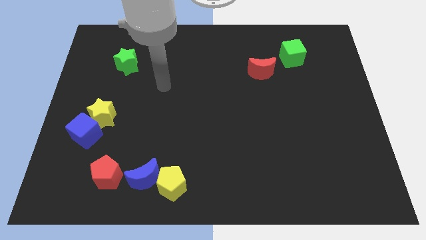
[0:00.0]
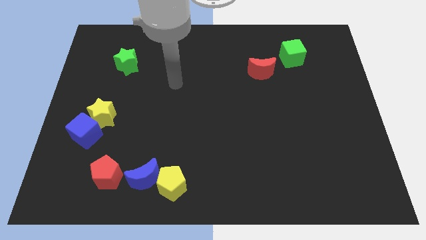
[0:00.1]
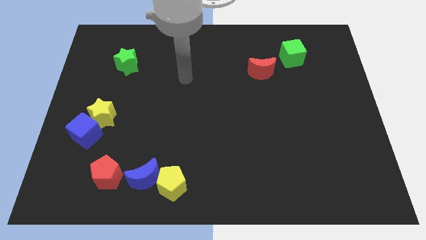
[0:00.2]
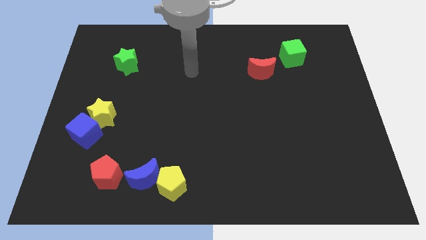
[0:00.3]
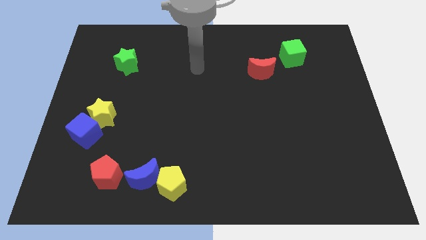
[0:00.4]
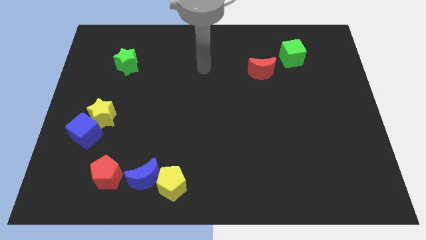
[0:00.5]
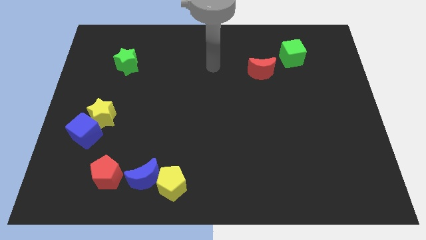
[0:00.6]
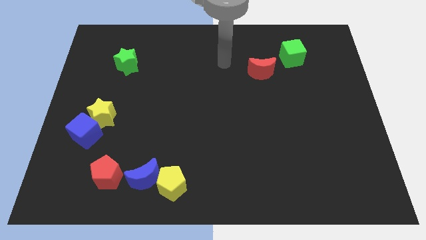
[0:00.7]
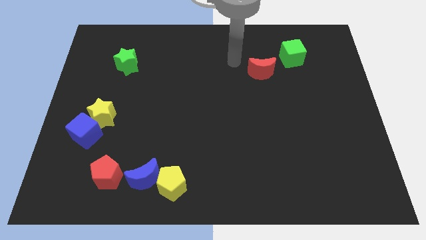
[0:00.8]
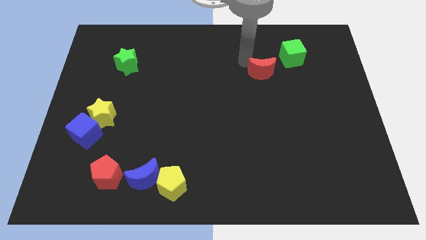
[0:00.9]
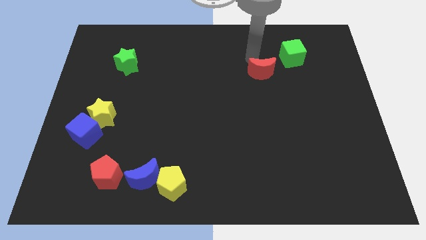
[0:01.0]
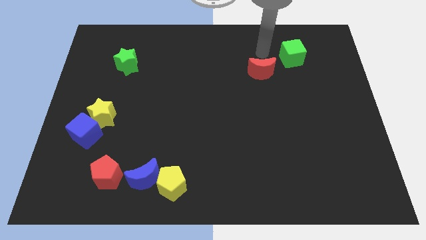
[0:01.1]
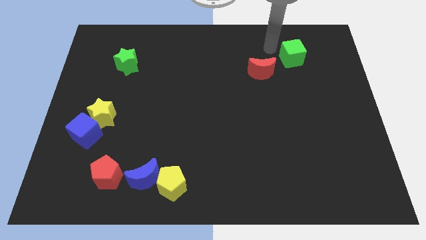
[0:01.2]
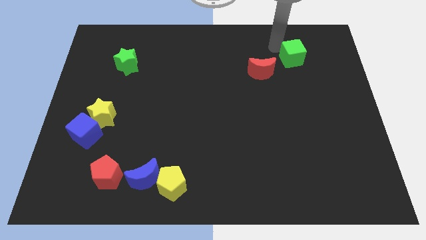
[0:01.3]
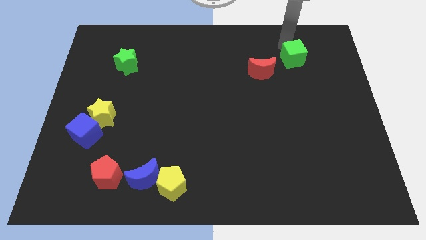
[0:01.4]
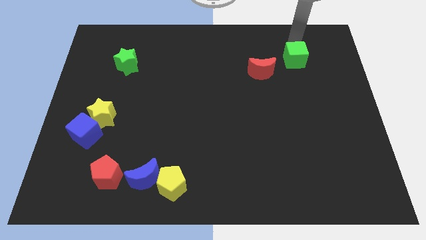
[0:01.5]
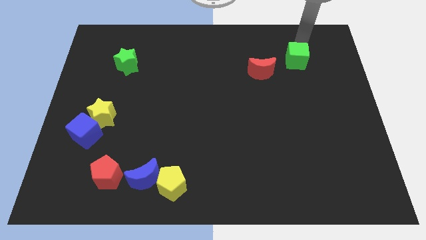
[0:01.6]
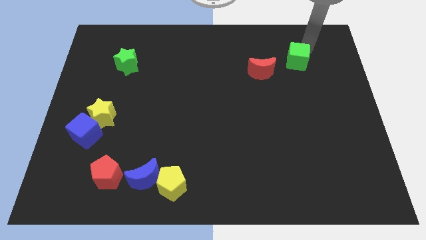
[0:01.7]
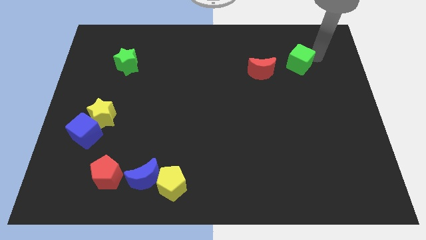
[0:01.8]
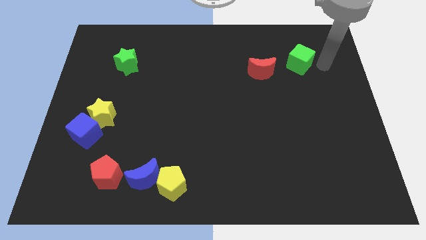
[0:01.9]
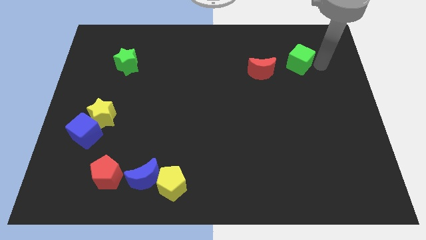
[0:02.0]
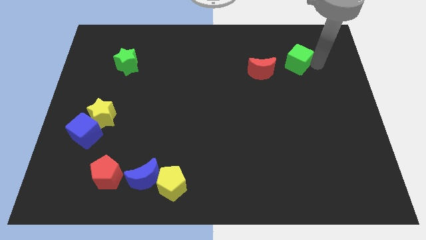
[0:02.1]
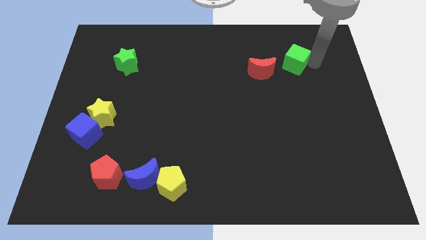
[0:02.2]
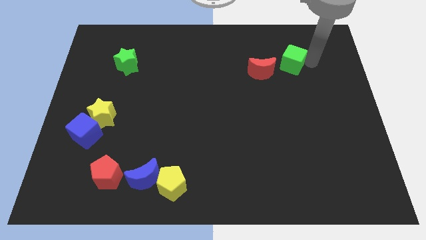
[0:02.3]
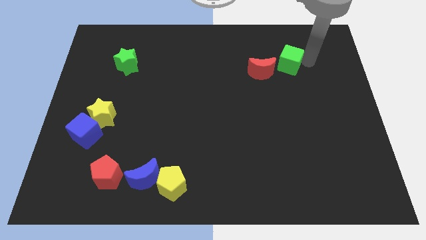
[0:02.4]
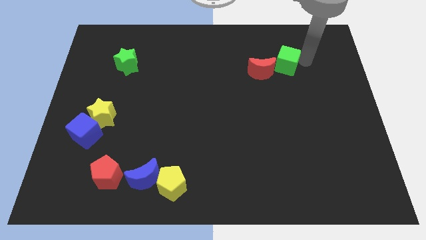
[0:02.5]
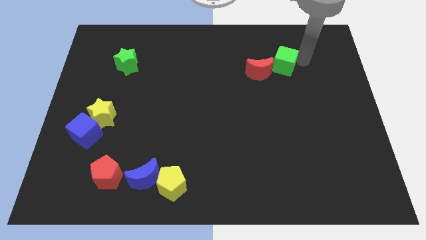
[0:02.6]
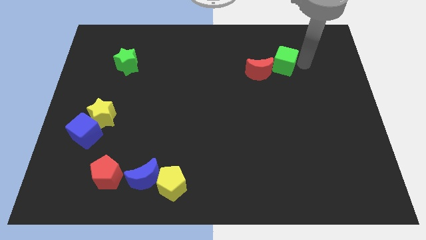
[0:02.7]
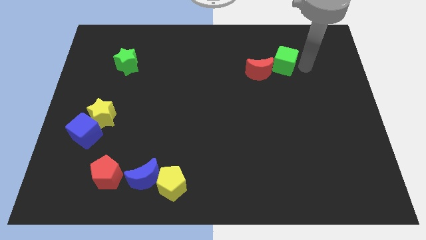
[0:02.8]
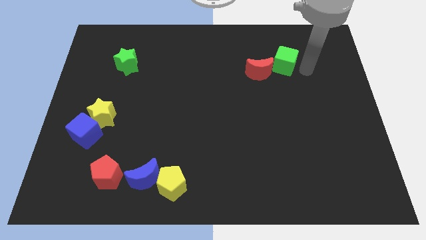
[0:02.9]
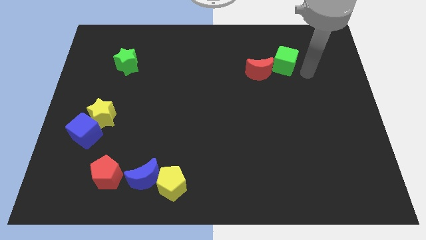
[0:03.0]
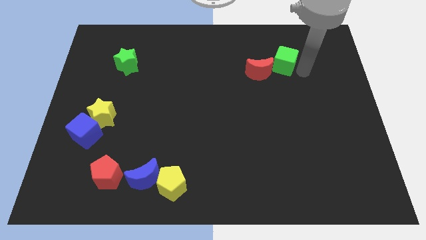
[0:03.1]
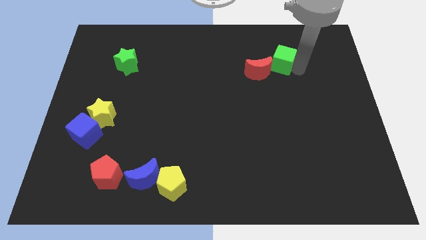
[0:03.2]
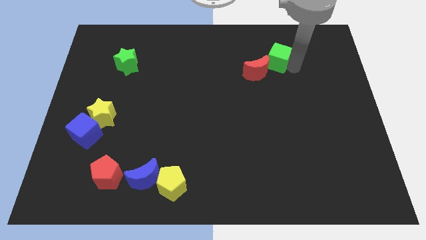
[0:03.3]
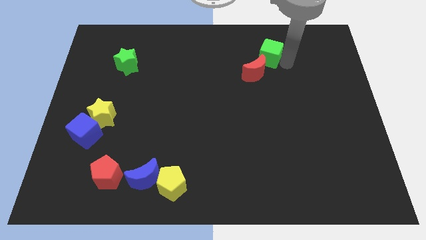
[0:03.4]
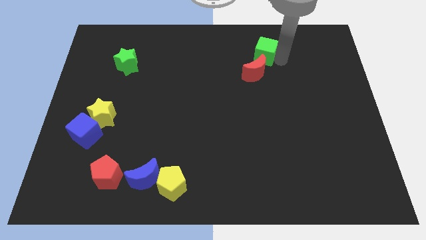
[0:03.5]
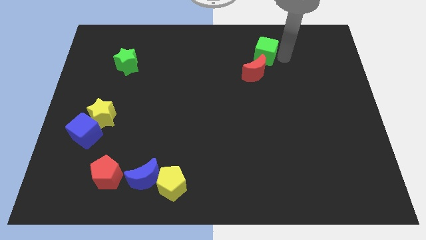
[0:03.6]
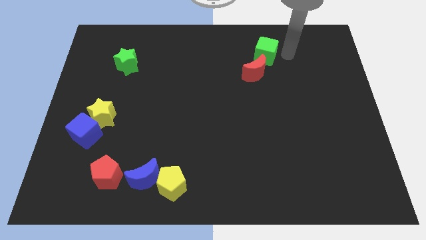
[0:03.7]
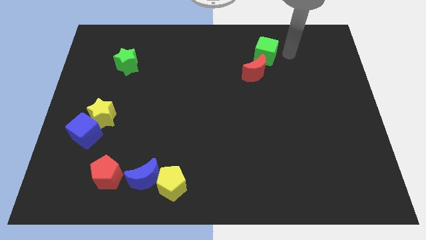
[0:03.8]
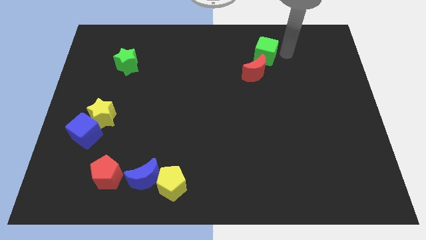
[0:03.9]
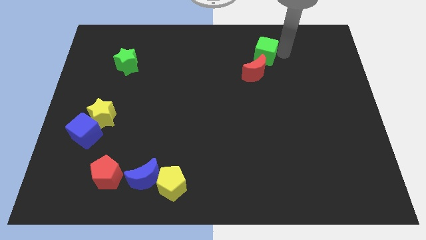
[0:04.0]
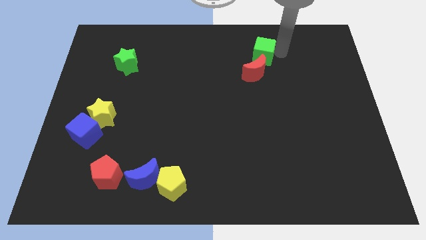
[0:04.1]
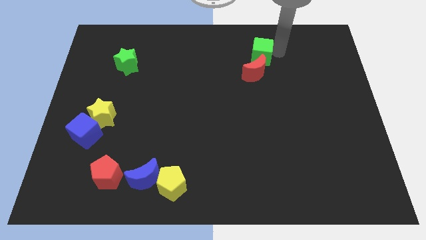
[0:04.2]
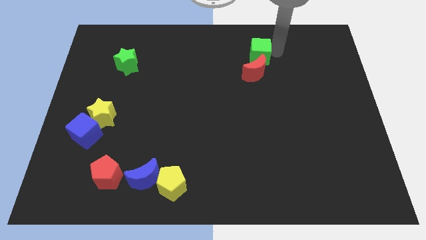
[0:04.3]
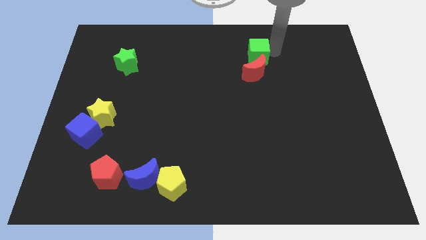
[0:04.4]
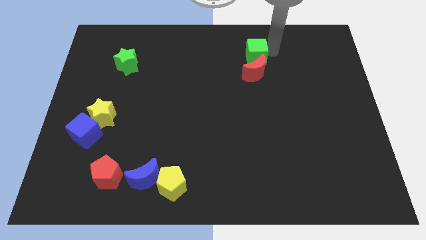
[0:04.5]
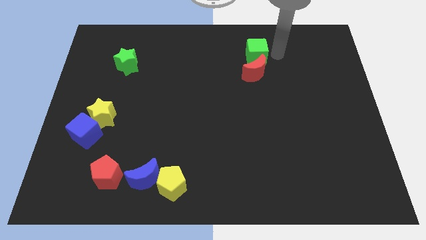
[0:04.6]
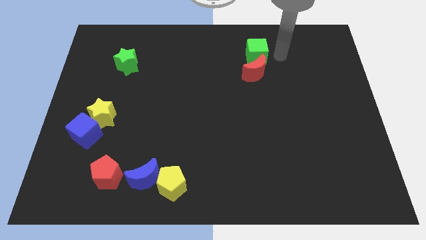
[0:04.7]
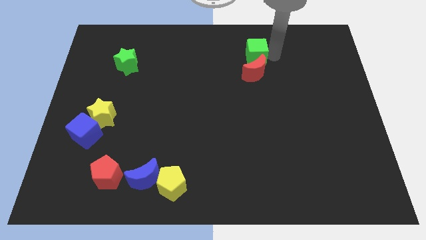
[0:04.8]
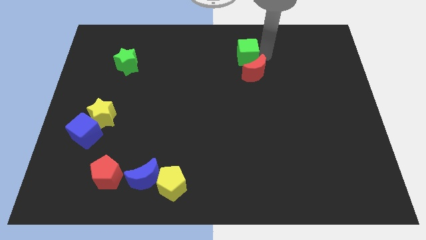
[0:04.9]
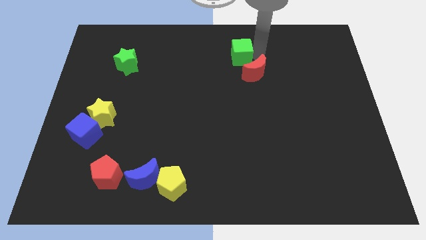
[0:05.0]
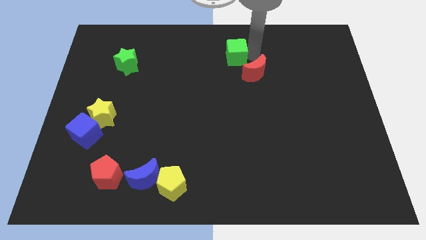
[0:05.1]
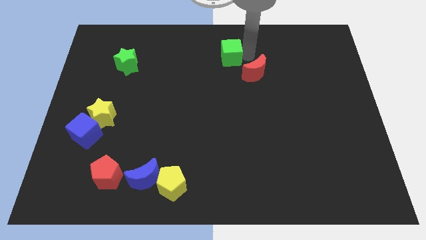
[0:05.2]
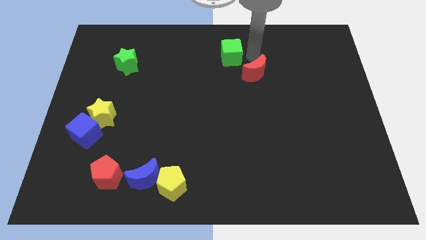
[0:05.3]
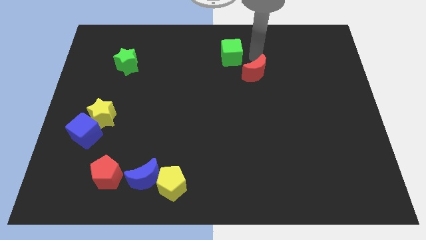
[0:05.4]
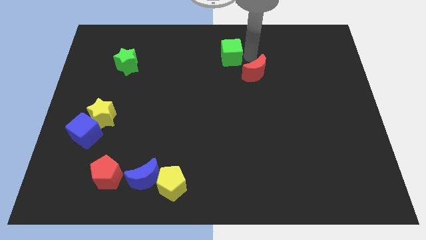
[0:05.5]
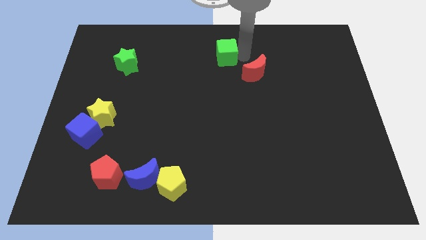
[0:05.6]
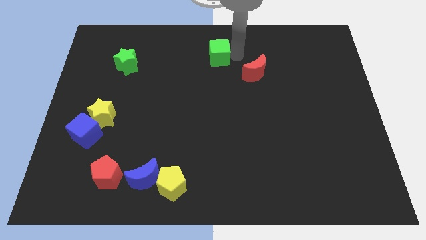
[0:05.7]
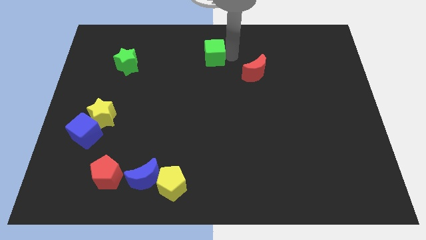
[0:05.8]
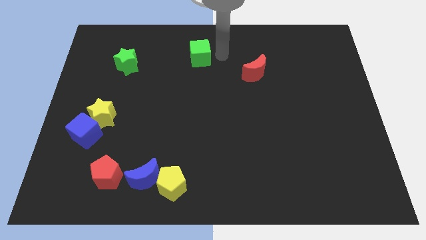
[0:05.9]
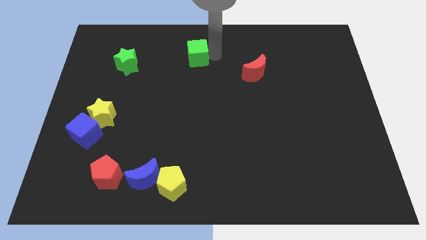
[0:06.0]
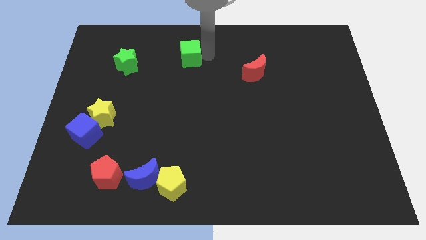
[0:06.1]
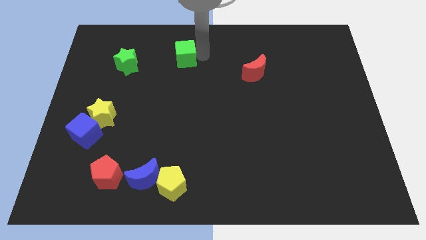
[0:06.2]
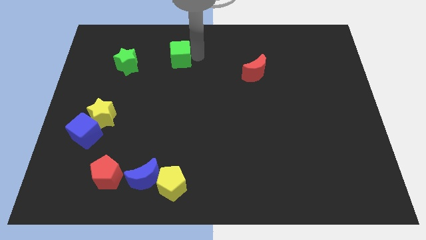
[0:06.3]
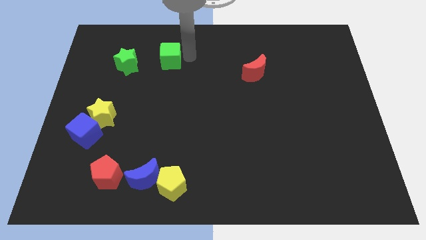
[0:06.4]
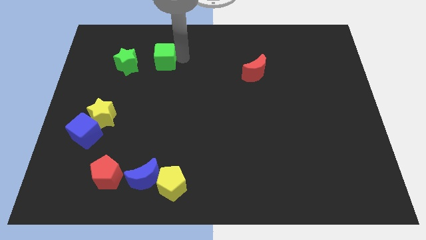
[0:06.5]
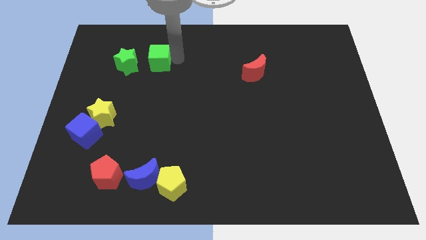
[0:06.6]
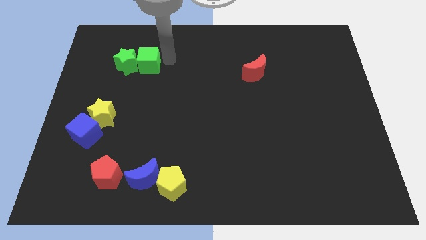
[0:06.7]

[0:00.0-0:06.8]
move the green cube next to the green star
